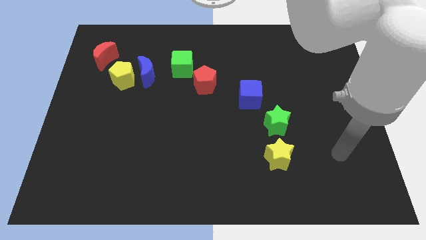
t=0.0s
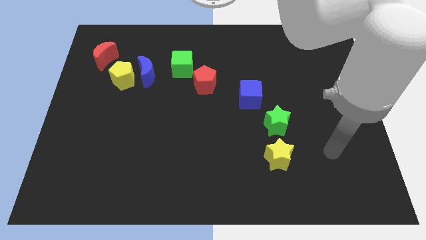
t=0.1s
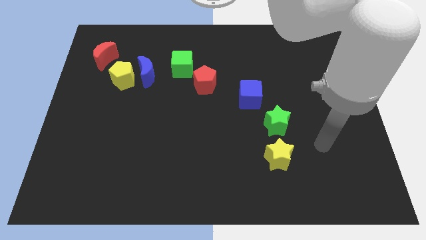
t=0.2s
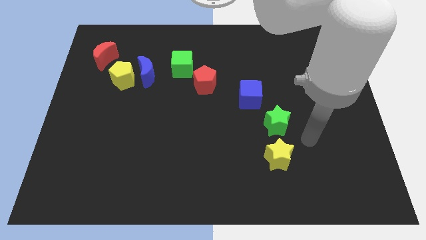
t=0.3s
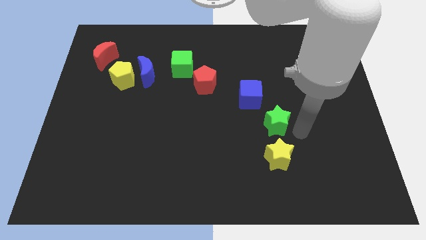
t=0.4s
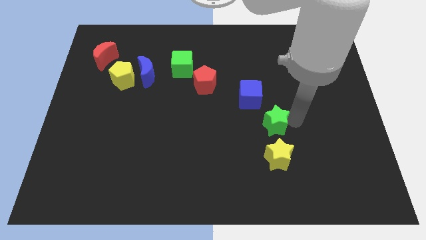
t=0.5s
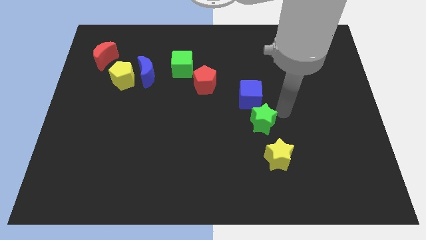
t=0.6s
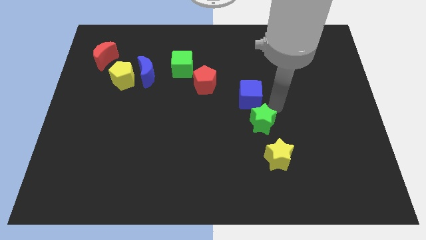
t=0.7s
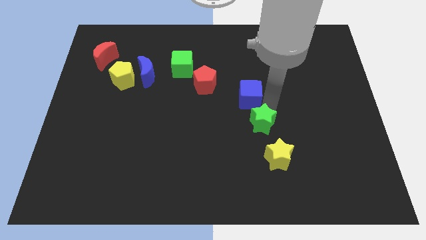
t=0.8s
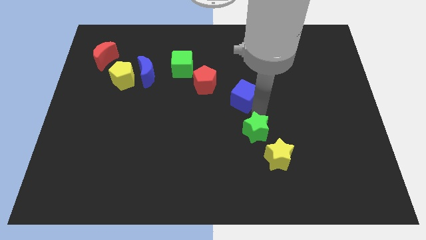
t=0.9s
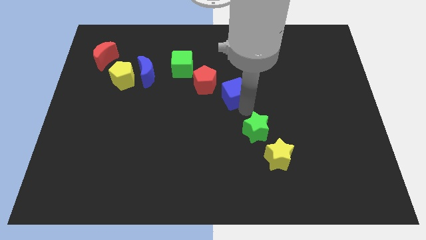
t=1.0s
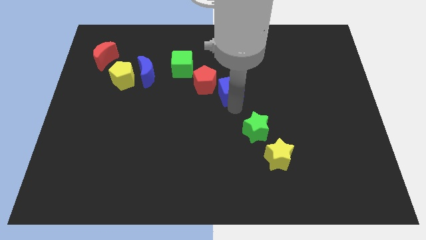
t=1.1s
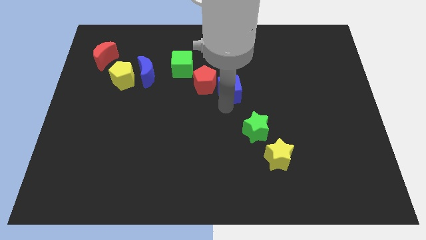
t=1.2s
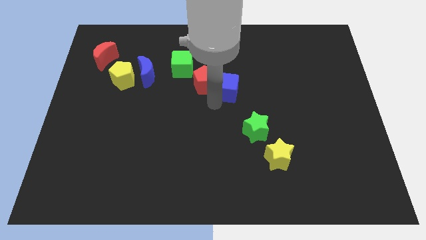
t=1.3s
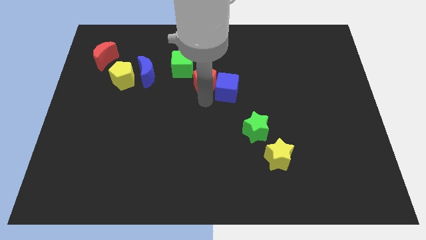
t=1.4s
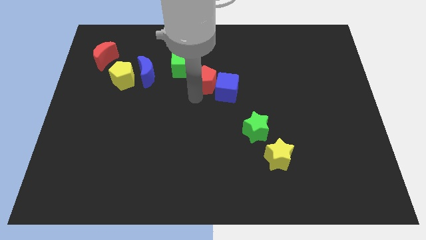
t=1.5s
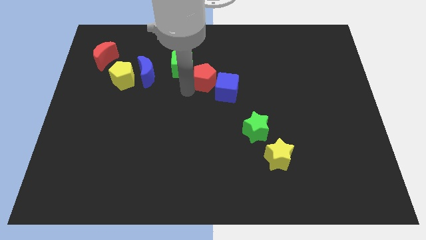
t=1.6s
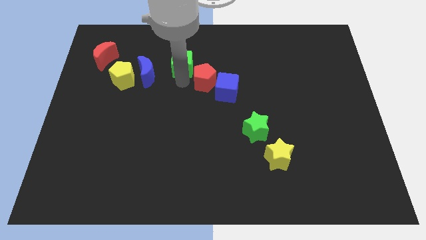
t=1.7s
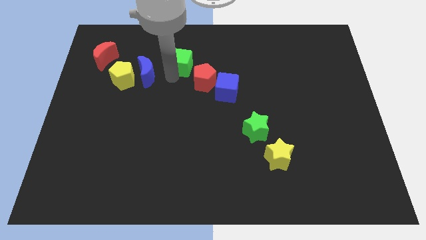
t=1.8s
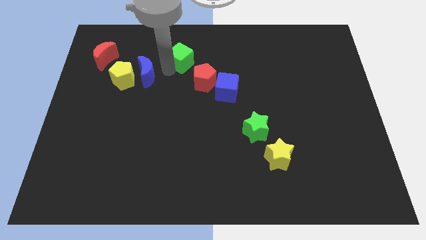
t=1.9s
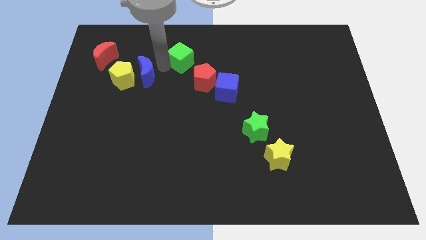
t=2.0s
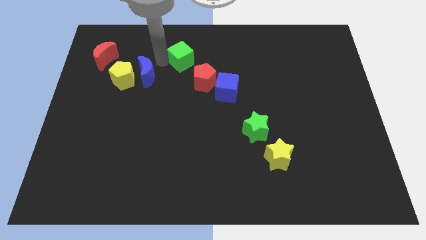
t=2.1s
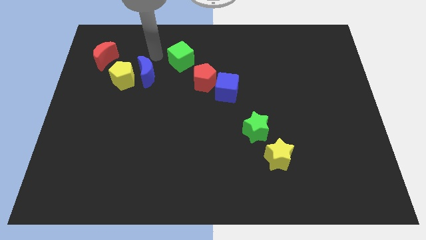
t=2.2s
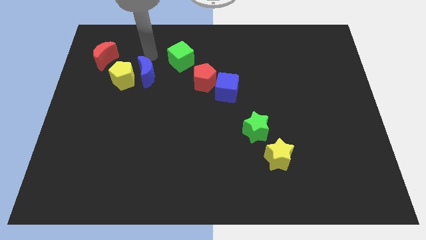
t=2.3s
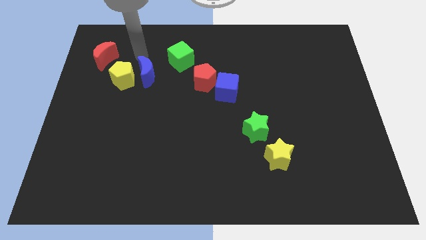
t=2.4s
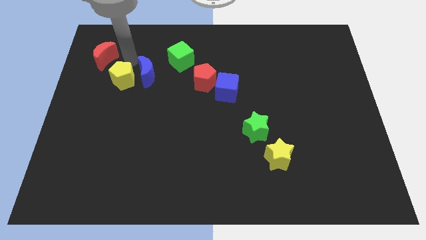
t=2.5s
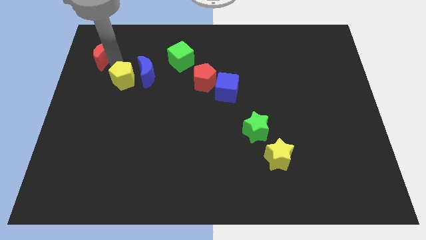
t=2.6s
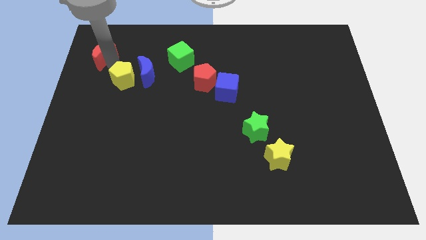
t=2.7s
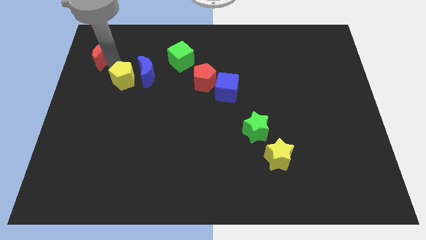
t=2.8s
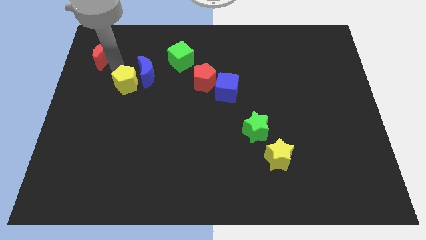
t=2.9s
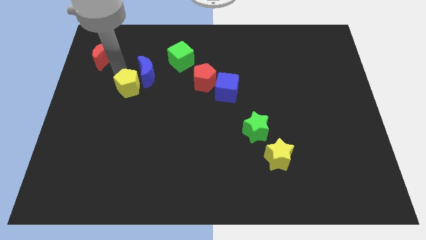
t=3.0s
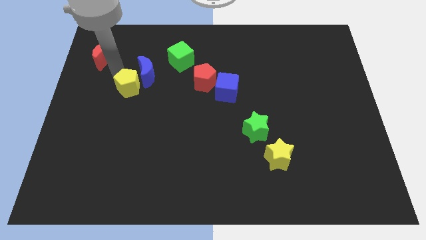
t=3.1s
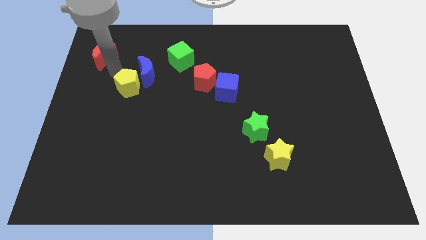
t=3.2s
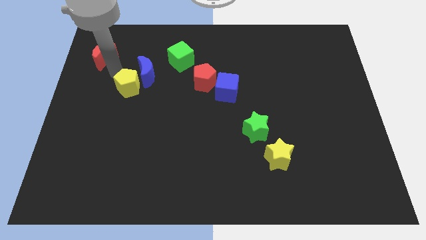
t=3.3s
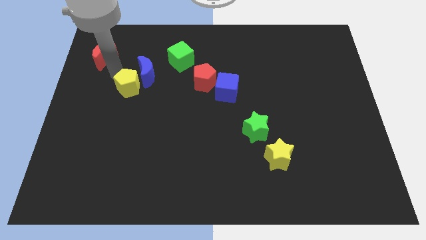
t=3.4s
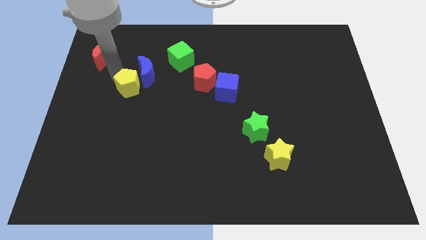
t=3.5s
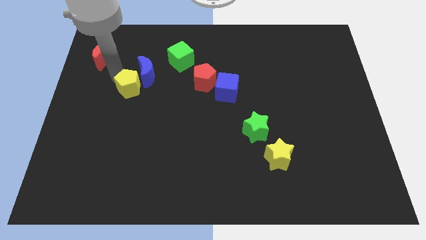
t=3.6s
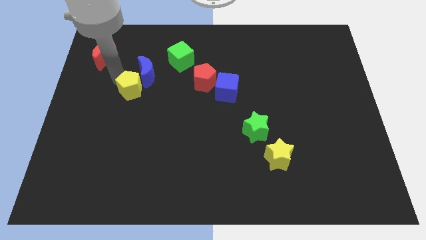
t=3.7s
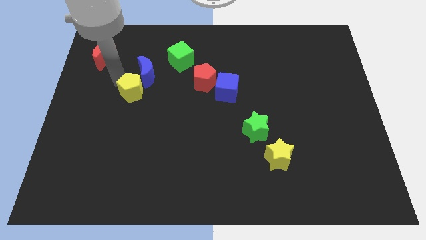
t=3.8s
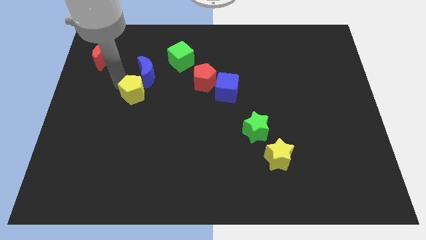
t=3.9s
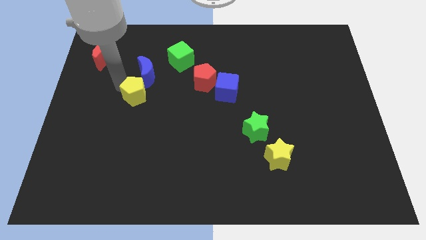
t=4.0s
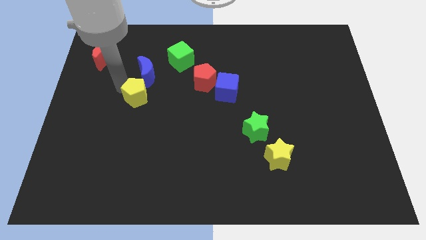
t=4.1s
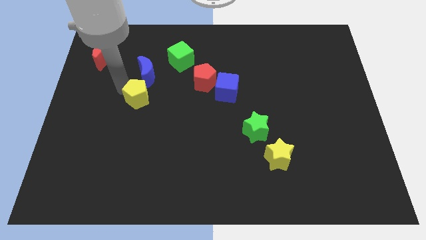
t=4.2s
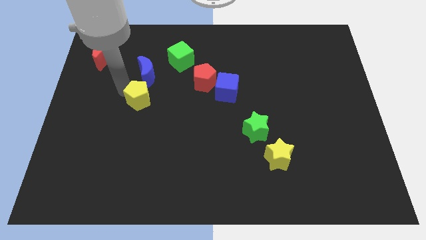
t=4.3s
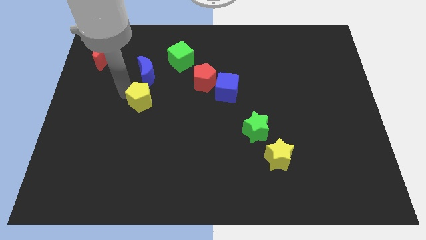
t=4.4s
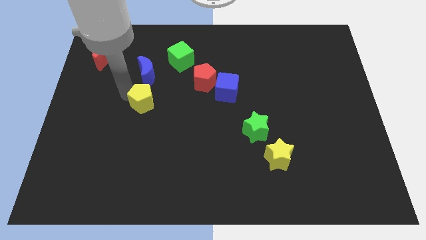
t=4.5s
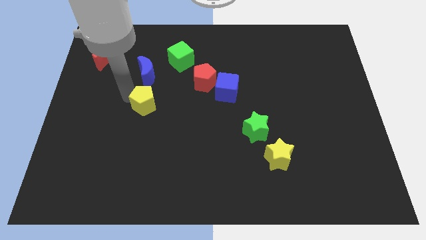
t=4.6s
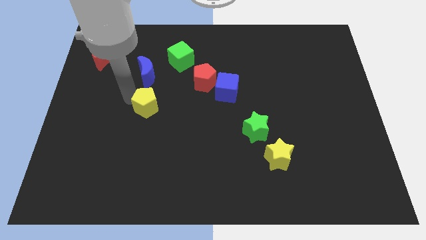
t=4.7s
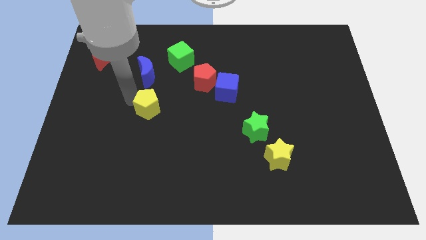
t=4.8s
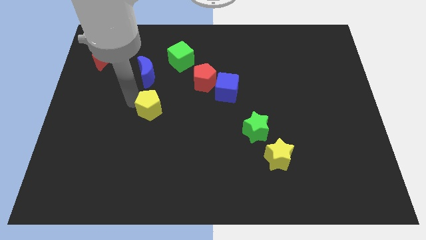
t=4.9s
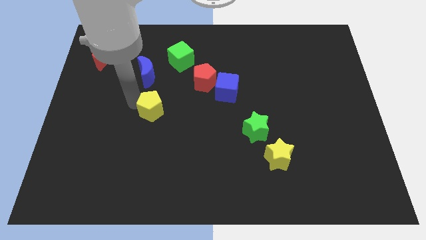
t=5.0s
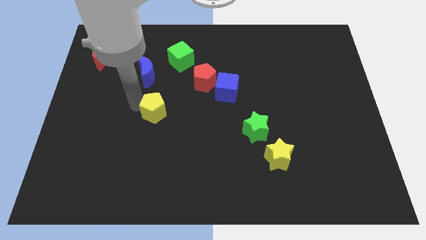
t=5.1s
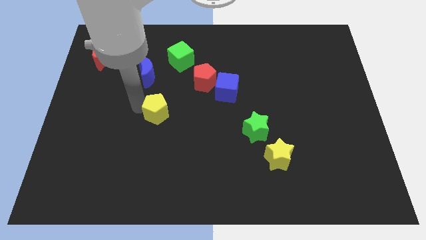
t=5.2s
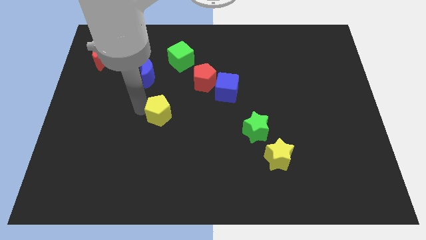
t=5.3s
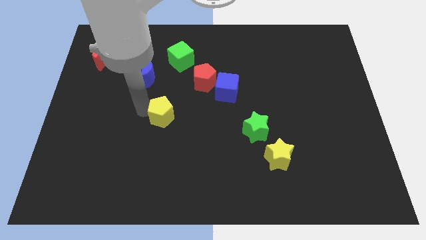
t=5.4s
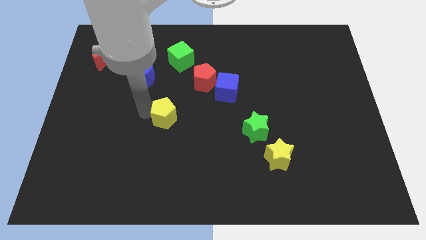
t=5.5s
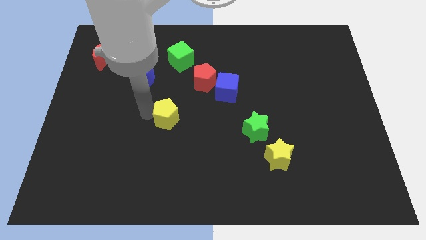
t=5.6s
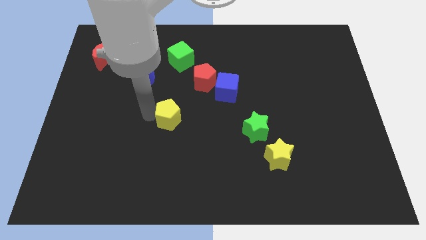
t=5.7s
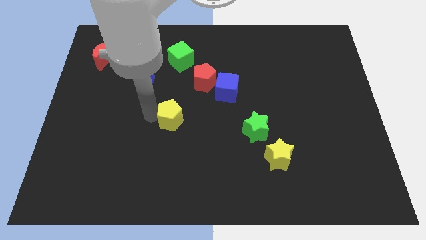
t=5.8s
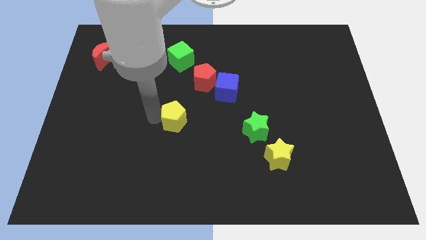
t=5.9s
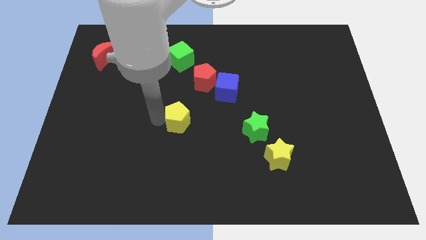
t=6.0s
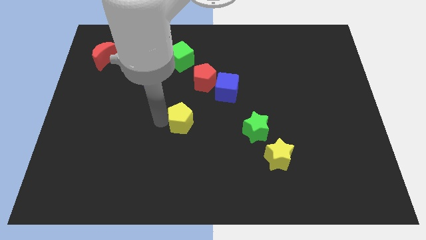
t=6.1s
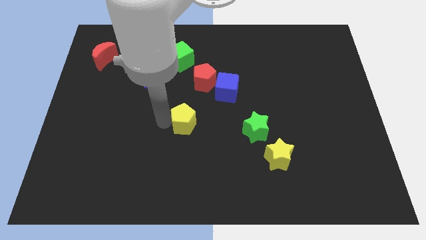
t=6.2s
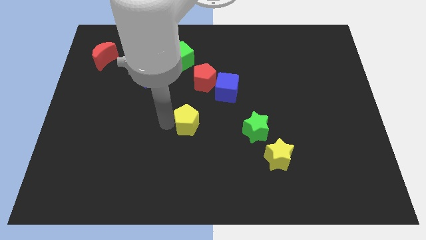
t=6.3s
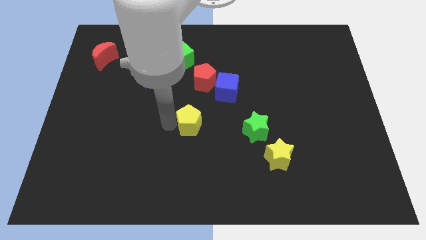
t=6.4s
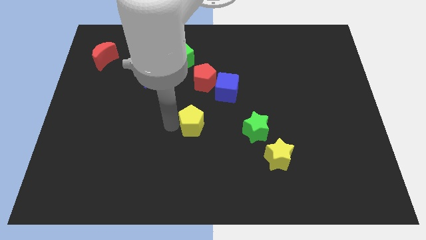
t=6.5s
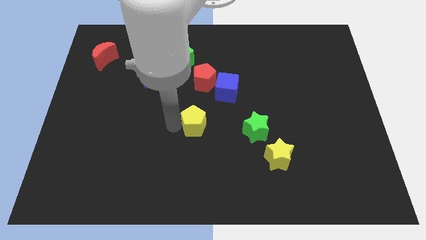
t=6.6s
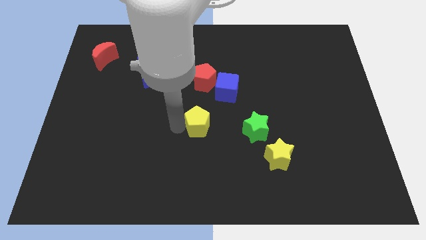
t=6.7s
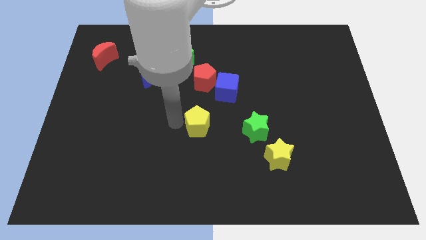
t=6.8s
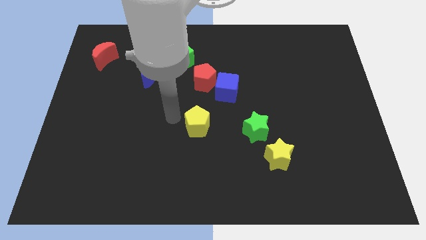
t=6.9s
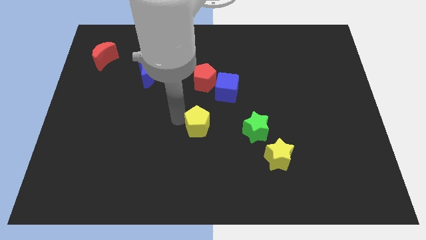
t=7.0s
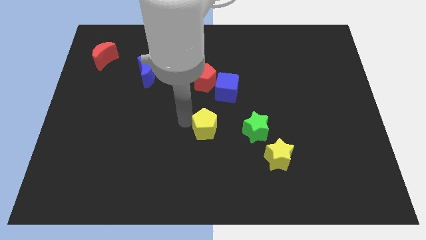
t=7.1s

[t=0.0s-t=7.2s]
push the yellow pentagon to the bottom side of the blue cube
